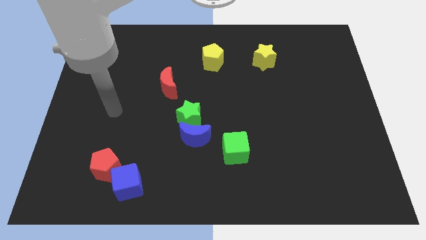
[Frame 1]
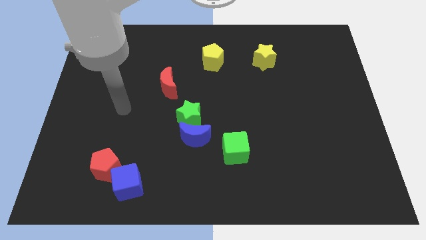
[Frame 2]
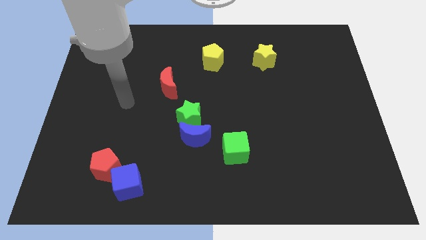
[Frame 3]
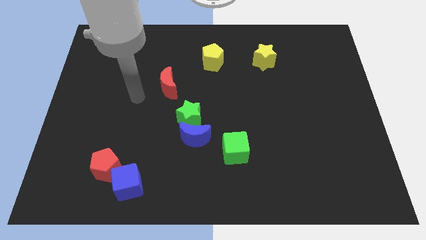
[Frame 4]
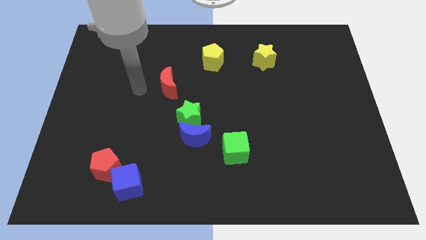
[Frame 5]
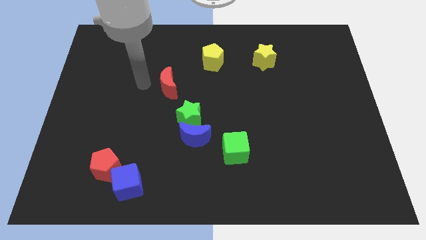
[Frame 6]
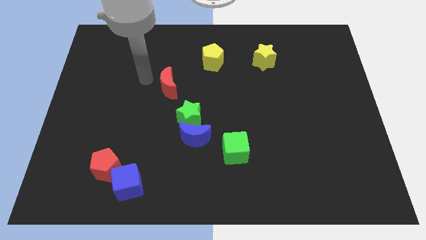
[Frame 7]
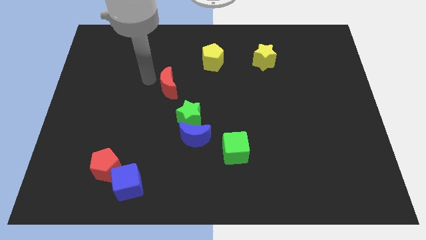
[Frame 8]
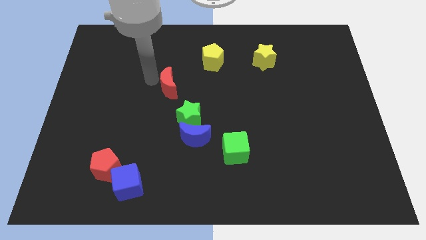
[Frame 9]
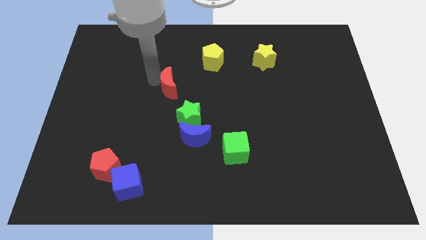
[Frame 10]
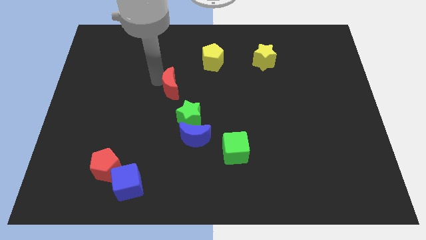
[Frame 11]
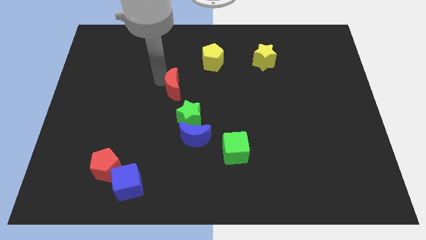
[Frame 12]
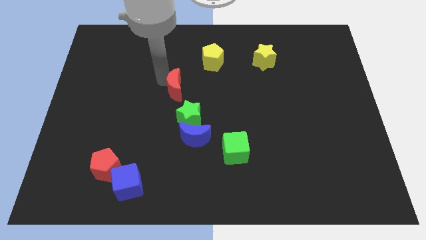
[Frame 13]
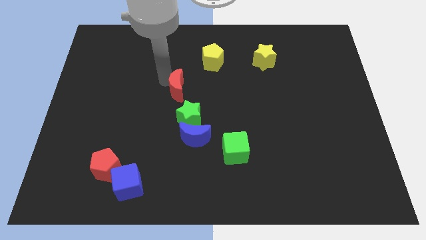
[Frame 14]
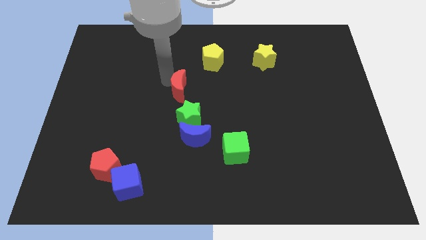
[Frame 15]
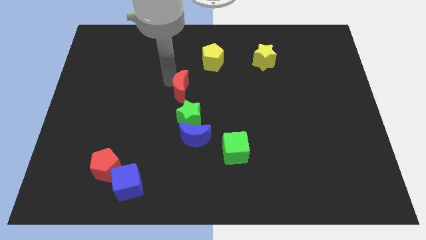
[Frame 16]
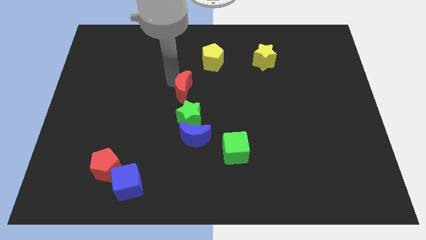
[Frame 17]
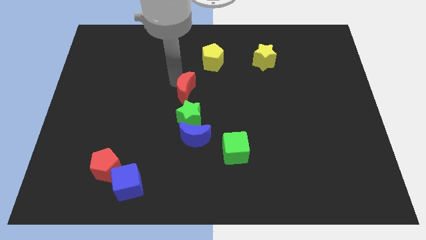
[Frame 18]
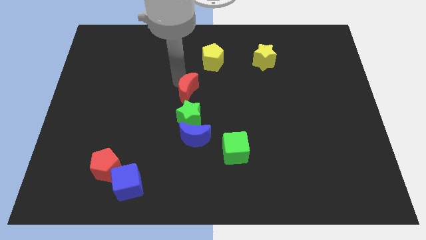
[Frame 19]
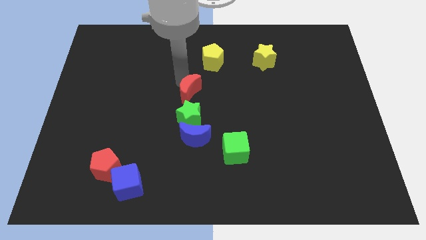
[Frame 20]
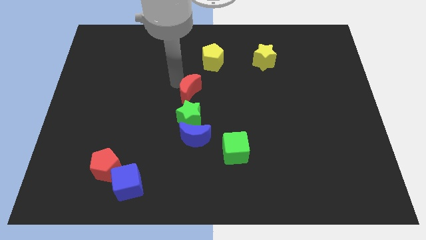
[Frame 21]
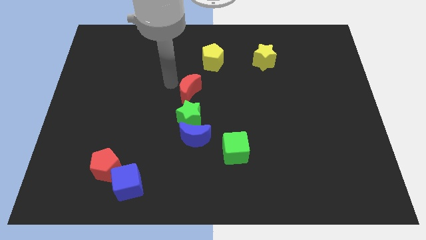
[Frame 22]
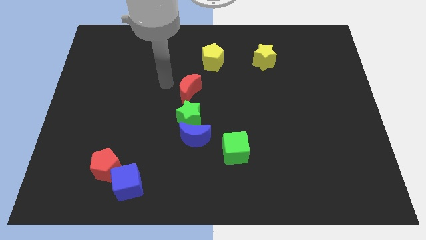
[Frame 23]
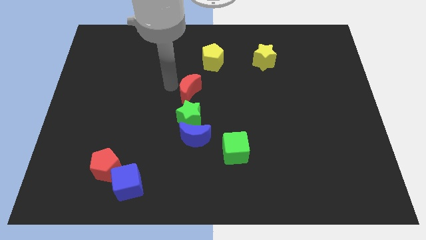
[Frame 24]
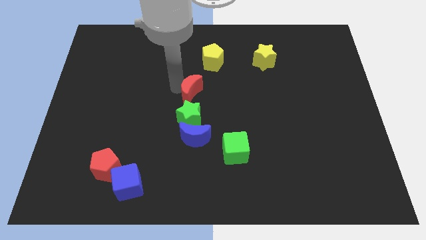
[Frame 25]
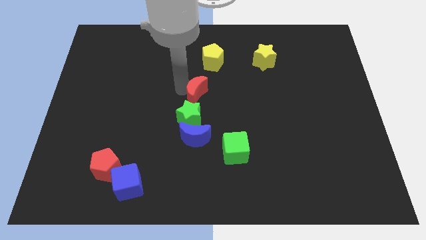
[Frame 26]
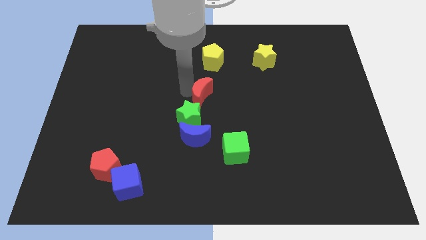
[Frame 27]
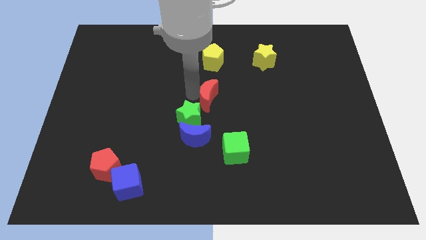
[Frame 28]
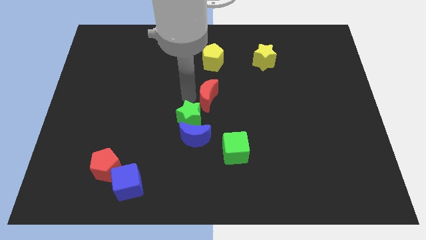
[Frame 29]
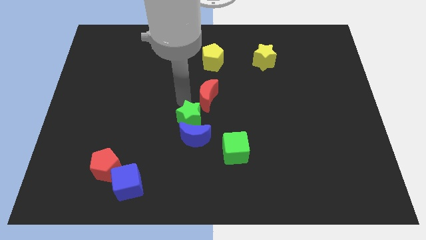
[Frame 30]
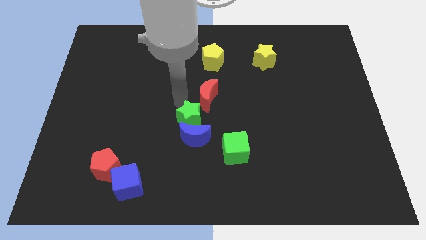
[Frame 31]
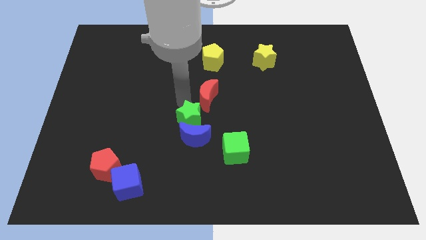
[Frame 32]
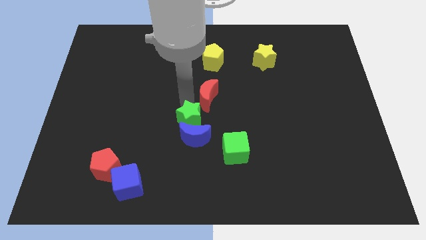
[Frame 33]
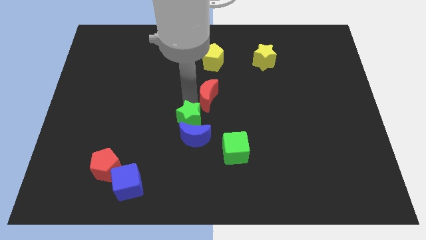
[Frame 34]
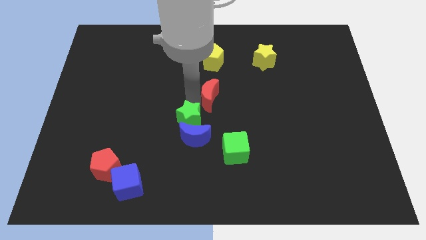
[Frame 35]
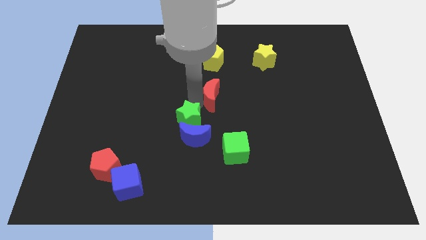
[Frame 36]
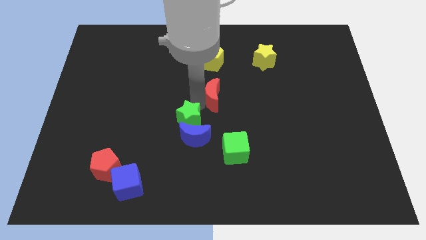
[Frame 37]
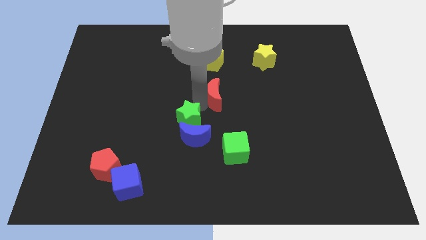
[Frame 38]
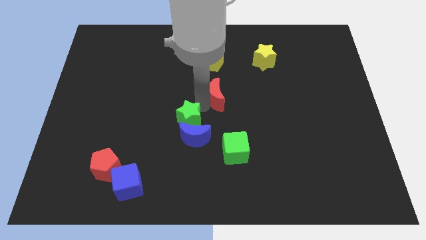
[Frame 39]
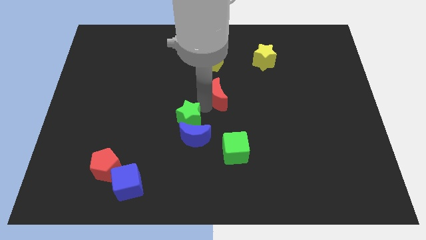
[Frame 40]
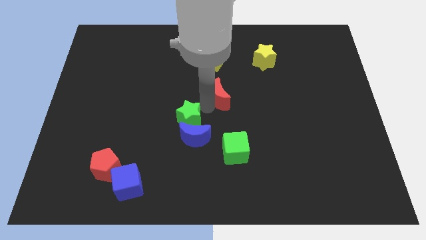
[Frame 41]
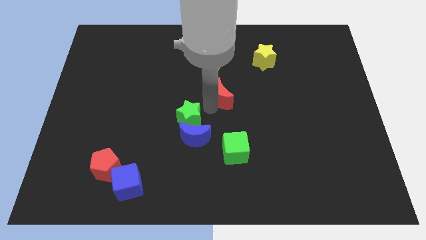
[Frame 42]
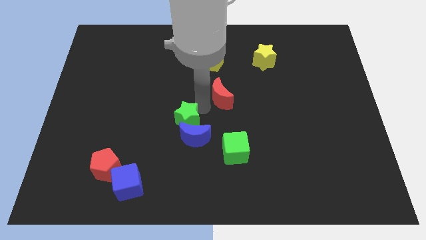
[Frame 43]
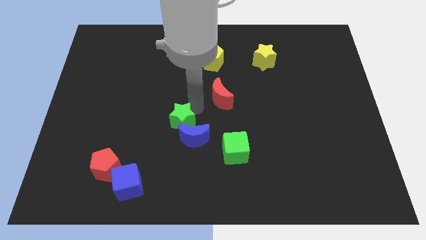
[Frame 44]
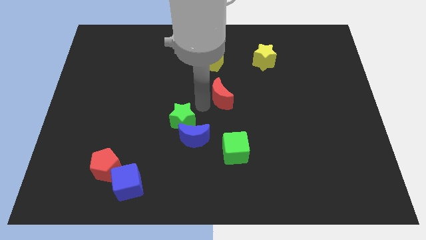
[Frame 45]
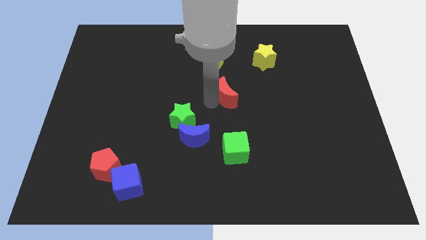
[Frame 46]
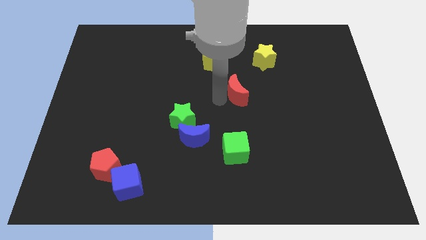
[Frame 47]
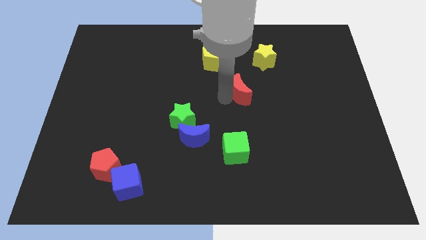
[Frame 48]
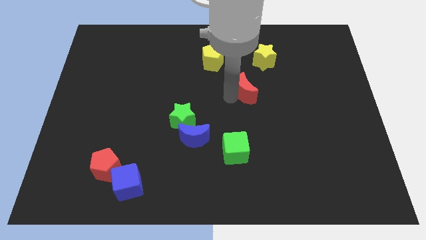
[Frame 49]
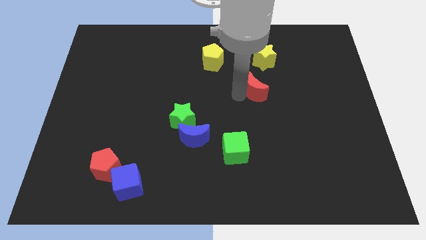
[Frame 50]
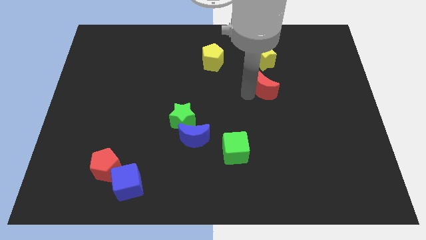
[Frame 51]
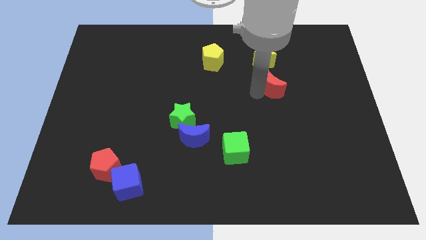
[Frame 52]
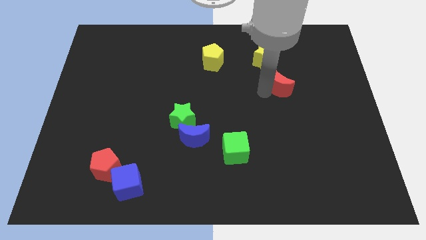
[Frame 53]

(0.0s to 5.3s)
slide the red moon to the bottom right of the yellow star
